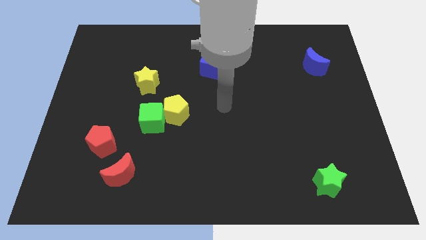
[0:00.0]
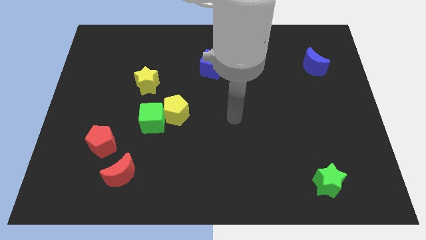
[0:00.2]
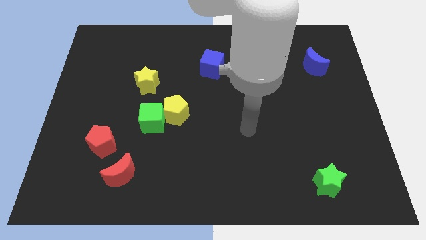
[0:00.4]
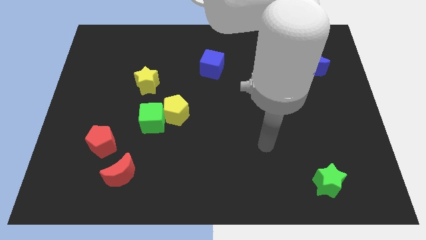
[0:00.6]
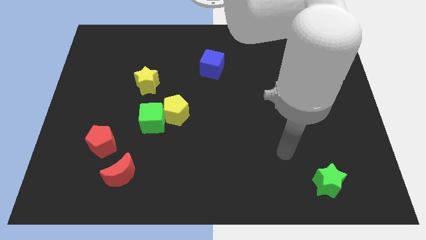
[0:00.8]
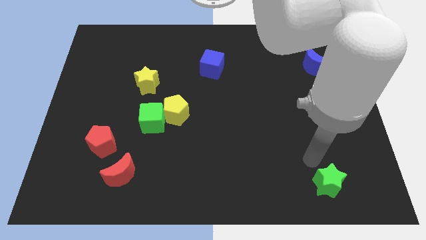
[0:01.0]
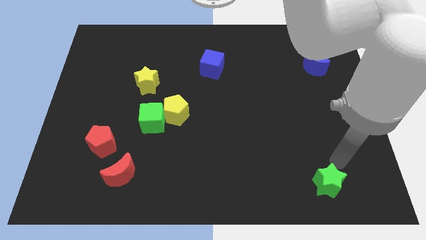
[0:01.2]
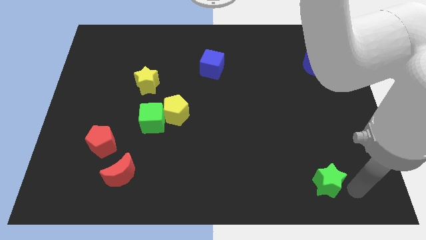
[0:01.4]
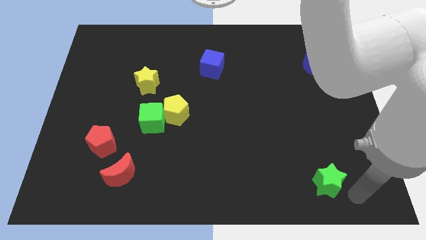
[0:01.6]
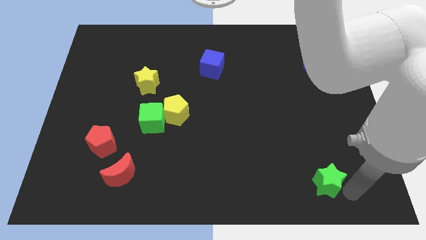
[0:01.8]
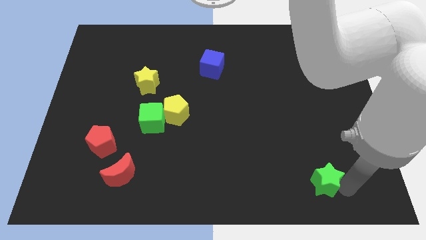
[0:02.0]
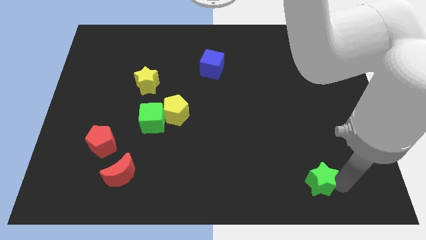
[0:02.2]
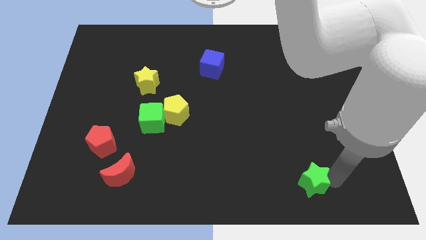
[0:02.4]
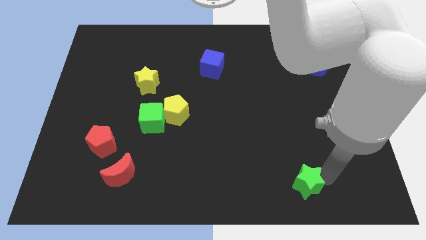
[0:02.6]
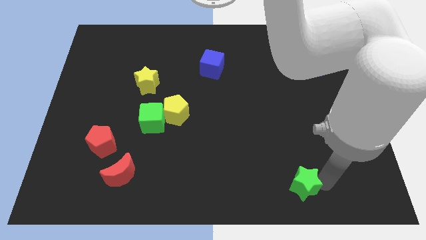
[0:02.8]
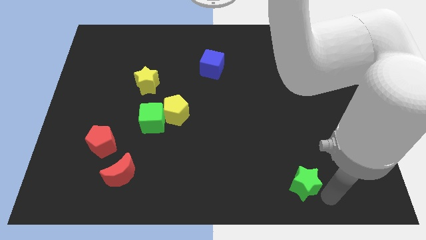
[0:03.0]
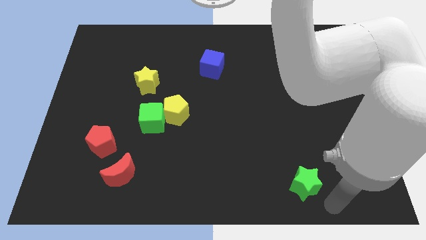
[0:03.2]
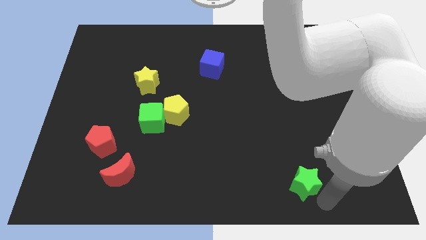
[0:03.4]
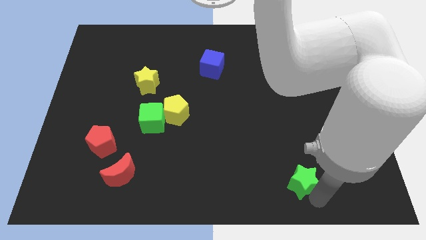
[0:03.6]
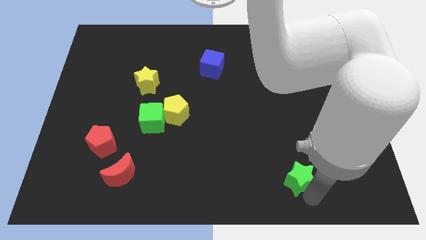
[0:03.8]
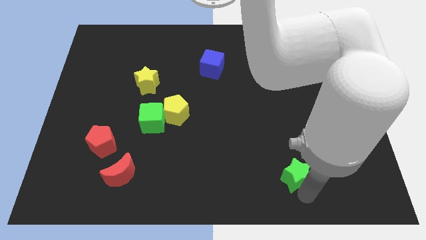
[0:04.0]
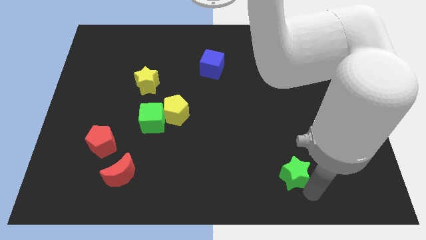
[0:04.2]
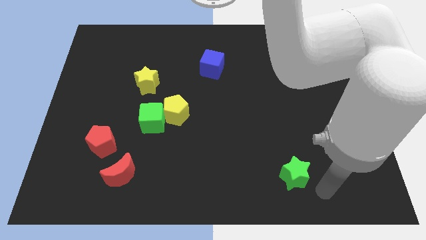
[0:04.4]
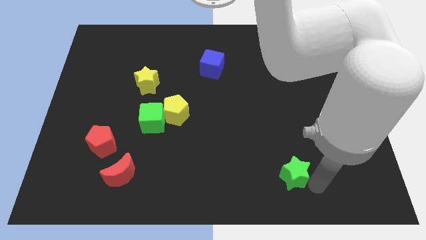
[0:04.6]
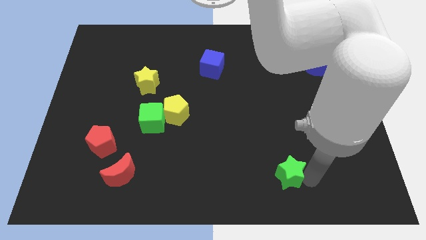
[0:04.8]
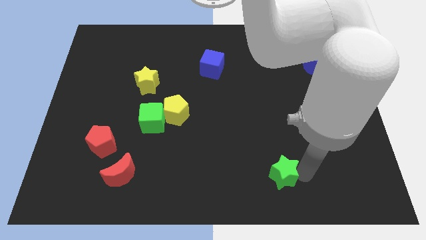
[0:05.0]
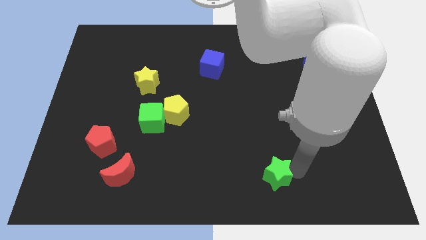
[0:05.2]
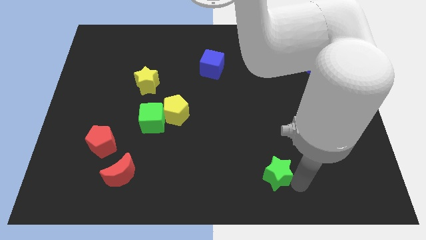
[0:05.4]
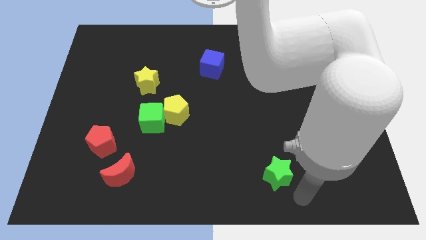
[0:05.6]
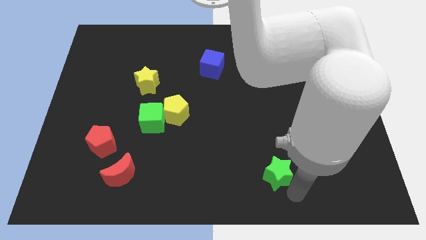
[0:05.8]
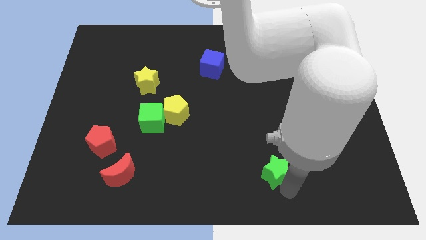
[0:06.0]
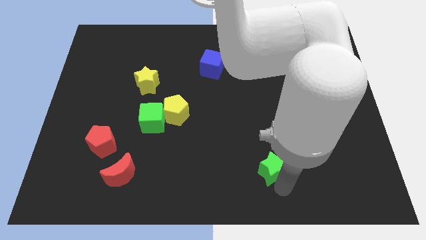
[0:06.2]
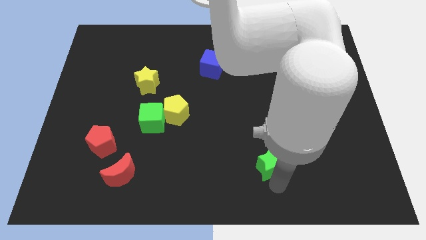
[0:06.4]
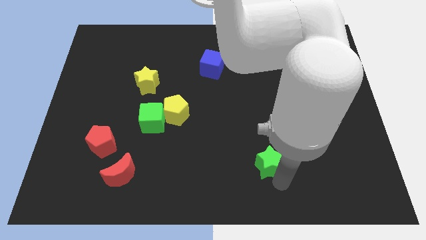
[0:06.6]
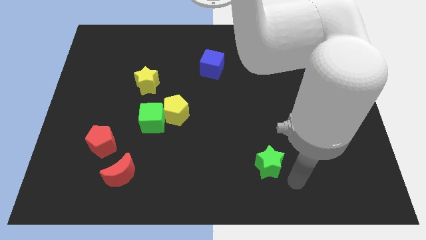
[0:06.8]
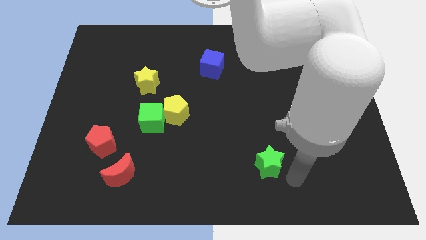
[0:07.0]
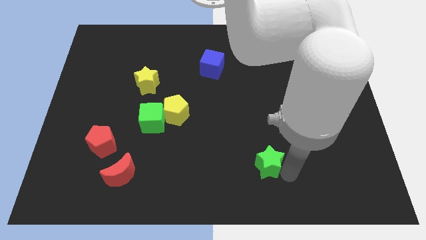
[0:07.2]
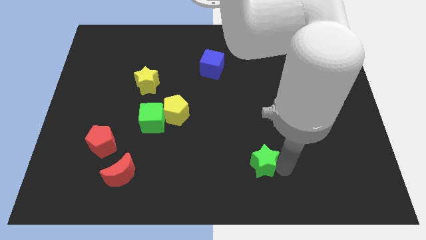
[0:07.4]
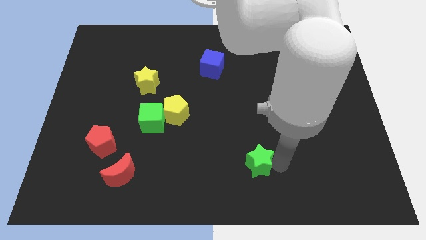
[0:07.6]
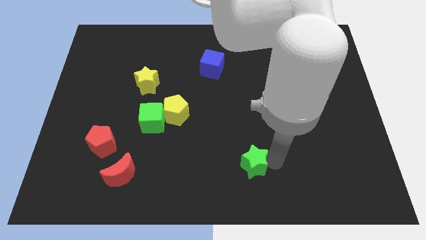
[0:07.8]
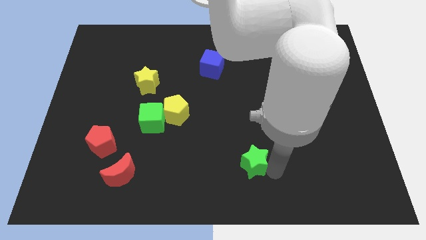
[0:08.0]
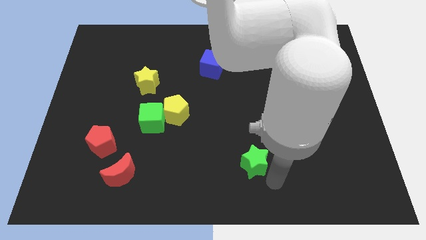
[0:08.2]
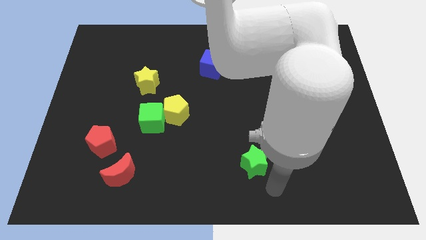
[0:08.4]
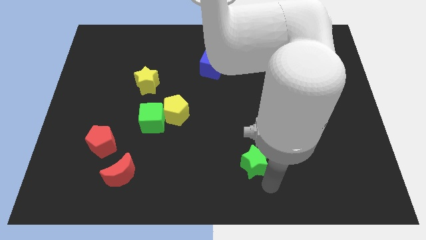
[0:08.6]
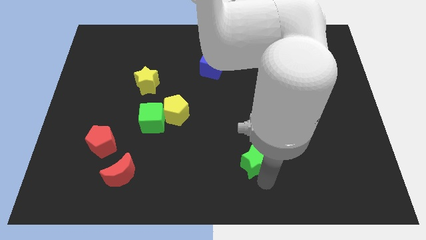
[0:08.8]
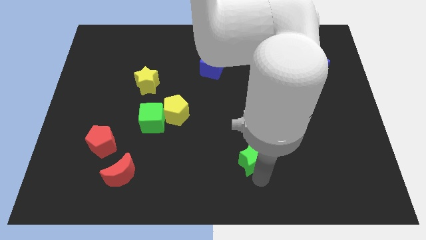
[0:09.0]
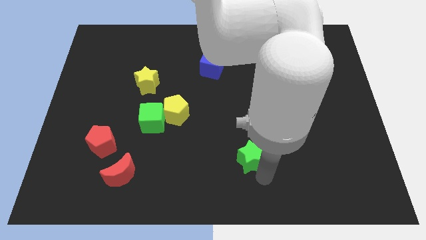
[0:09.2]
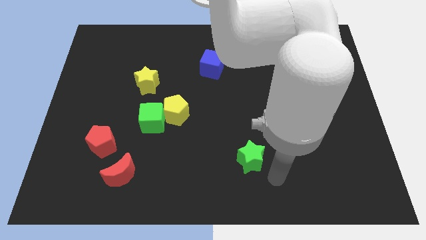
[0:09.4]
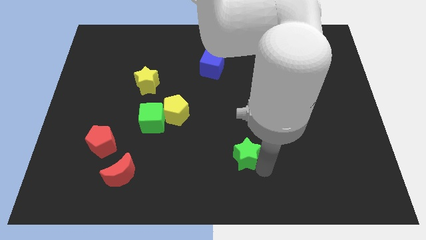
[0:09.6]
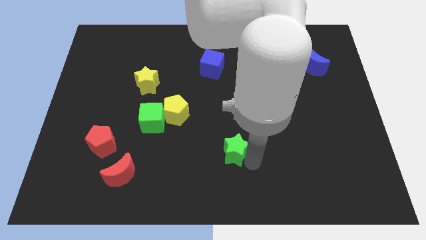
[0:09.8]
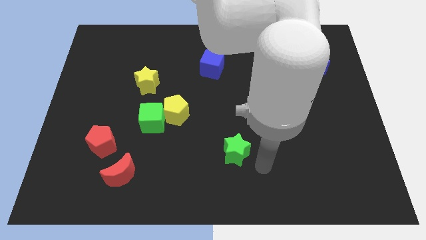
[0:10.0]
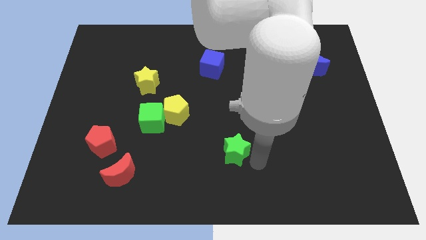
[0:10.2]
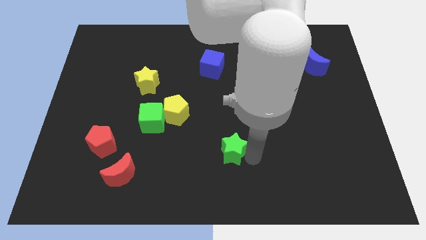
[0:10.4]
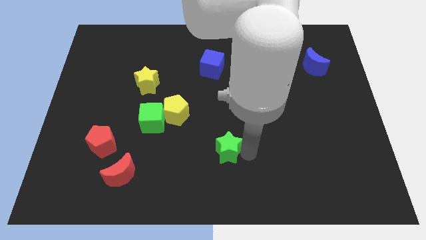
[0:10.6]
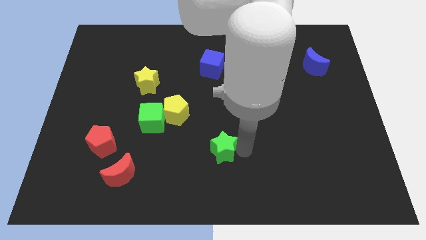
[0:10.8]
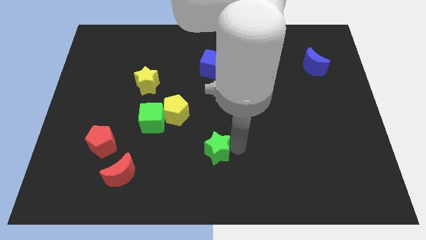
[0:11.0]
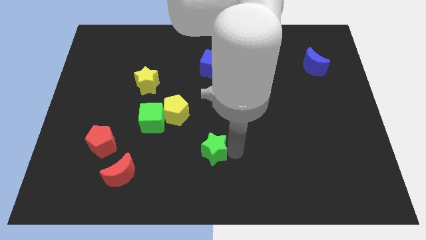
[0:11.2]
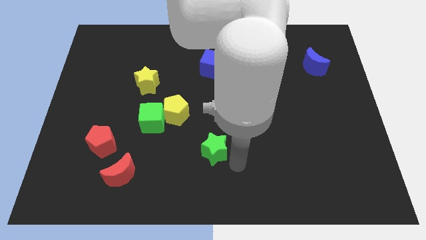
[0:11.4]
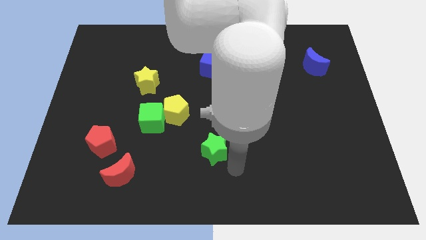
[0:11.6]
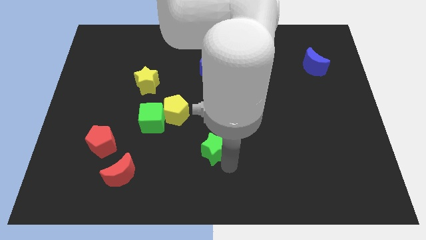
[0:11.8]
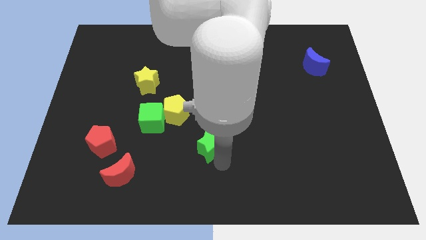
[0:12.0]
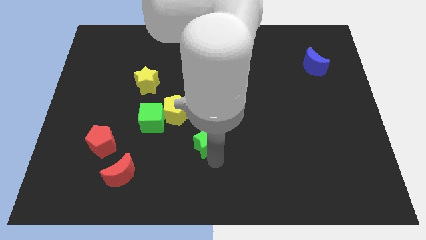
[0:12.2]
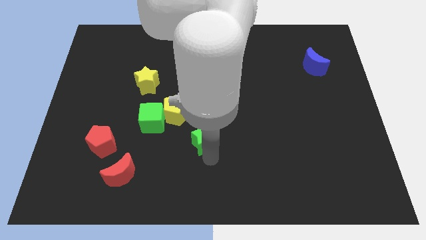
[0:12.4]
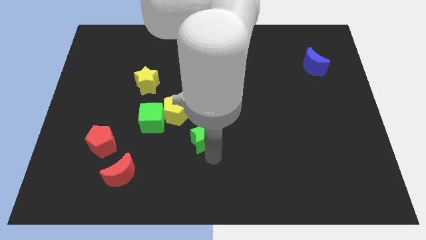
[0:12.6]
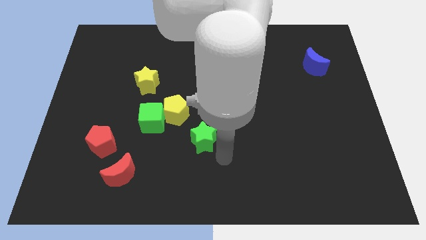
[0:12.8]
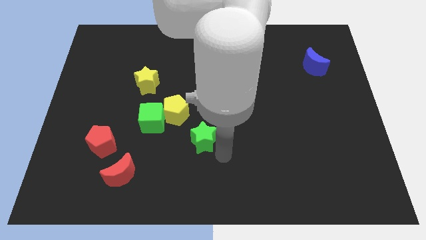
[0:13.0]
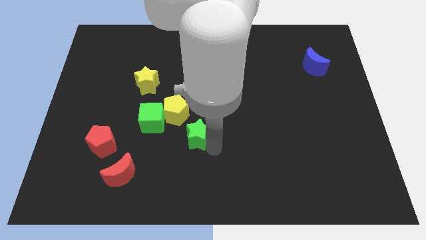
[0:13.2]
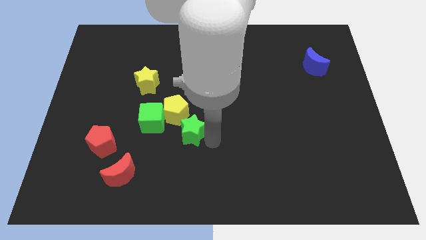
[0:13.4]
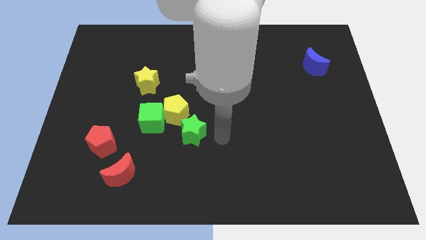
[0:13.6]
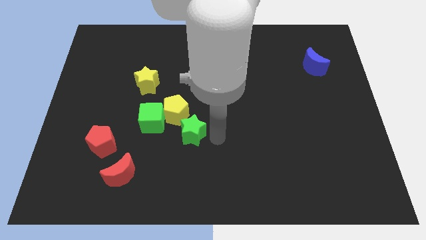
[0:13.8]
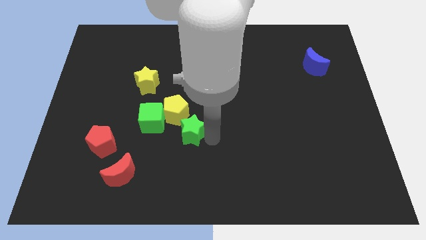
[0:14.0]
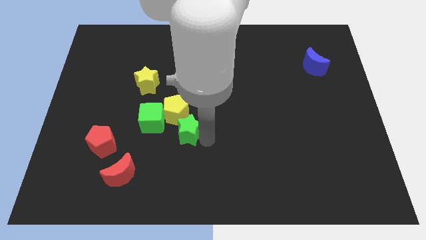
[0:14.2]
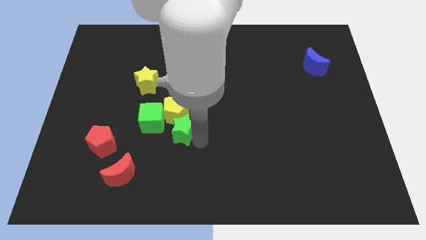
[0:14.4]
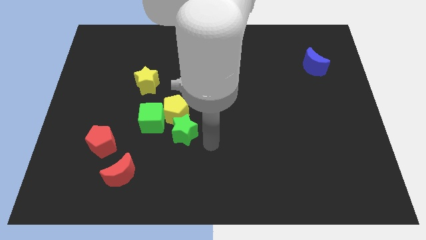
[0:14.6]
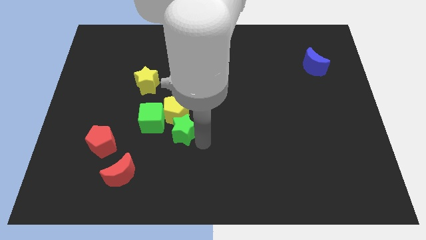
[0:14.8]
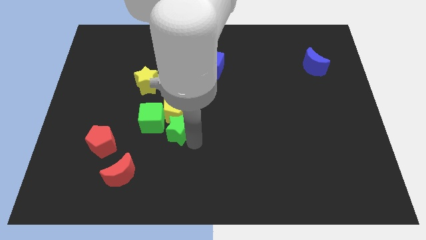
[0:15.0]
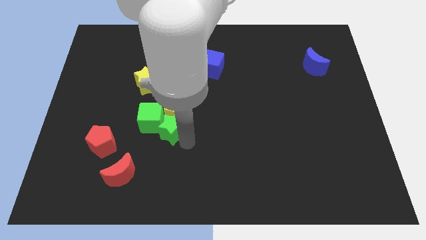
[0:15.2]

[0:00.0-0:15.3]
put the green star to the green cube
